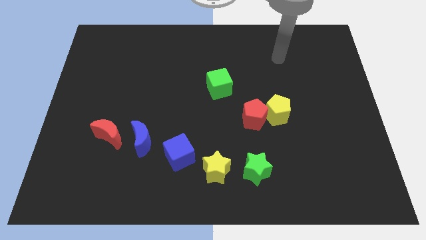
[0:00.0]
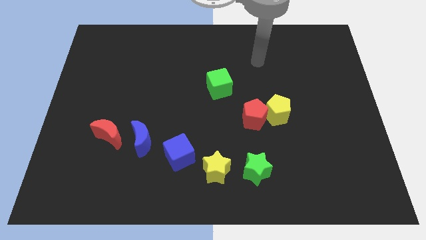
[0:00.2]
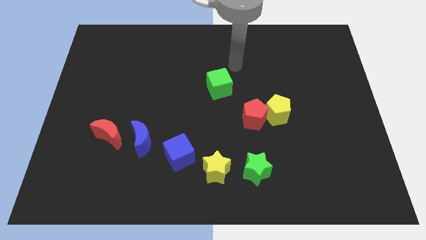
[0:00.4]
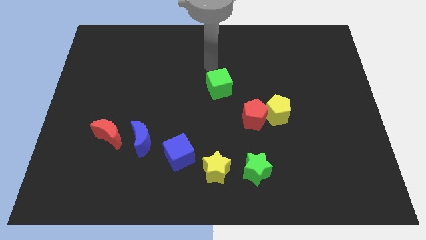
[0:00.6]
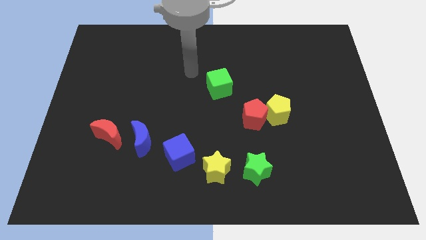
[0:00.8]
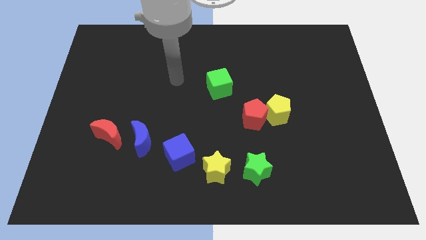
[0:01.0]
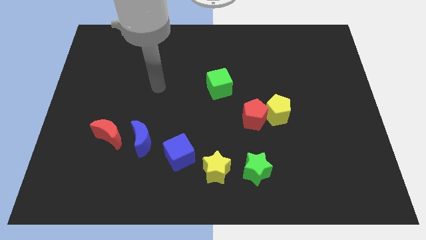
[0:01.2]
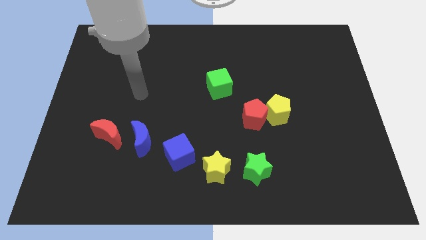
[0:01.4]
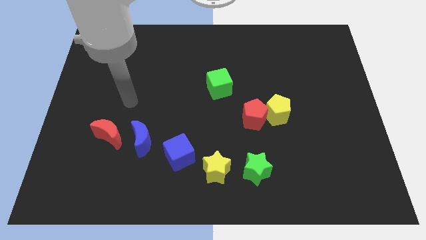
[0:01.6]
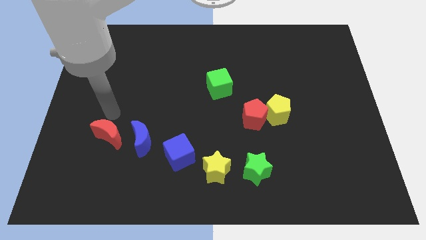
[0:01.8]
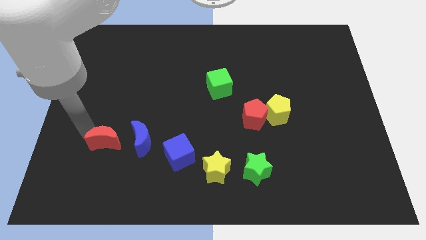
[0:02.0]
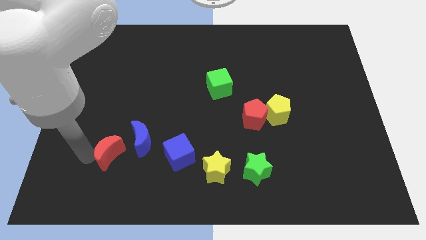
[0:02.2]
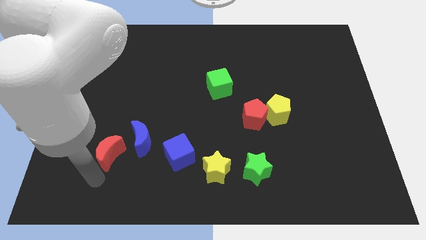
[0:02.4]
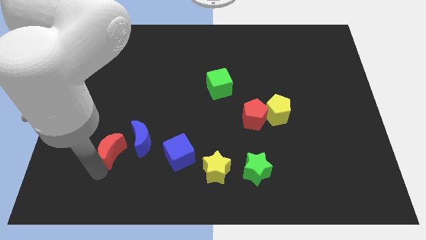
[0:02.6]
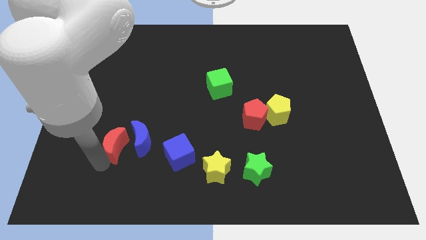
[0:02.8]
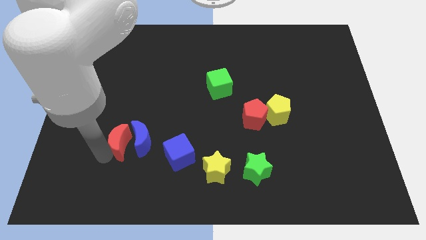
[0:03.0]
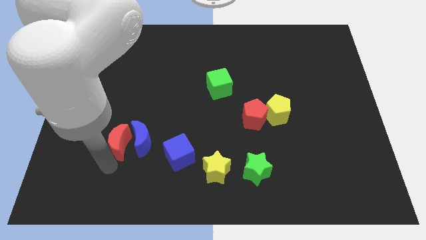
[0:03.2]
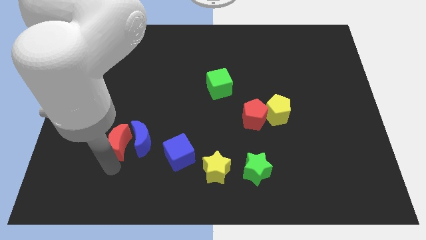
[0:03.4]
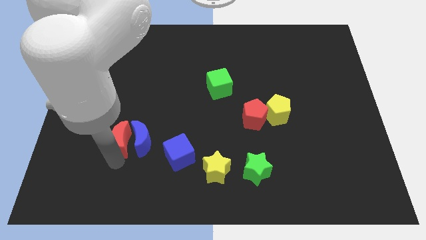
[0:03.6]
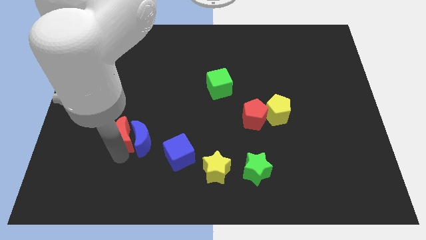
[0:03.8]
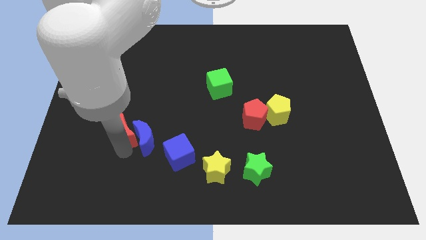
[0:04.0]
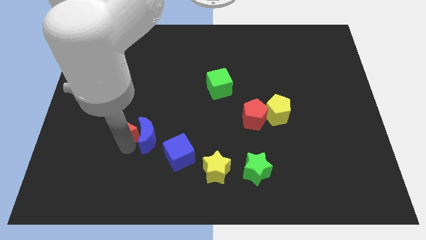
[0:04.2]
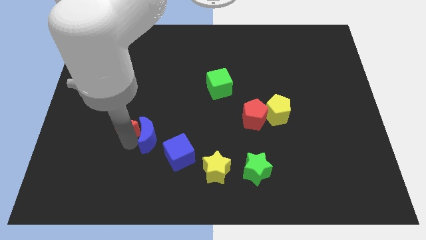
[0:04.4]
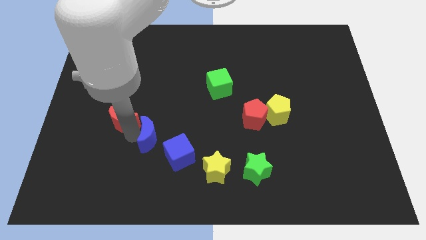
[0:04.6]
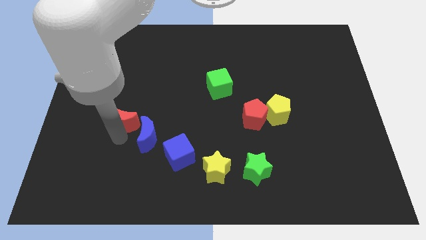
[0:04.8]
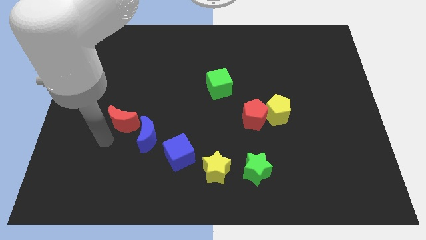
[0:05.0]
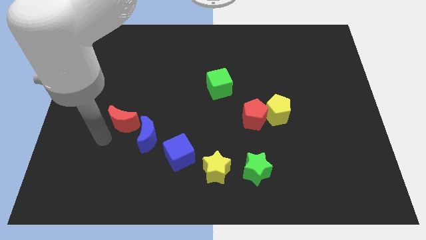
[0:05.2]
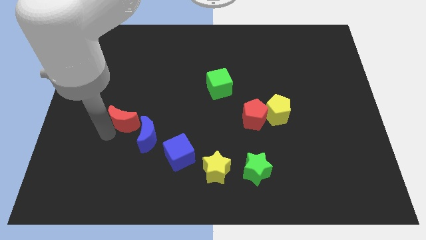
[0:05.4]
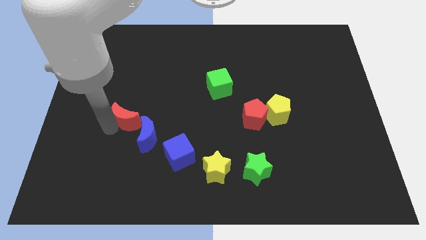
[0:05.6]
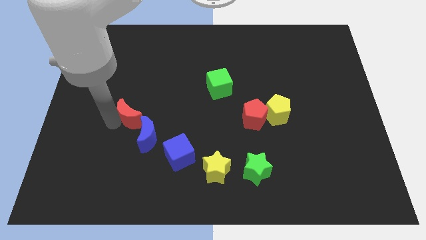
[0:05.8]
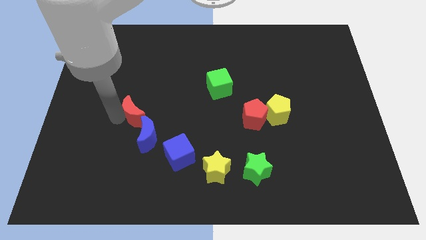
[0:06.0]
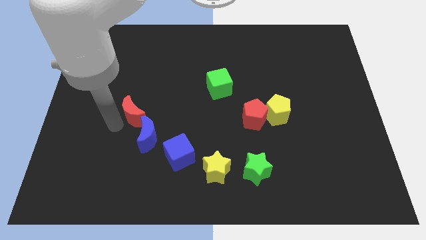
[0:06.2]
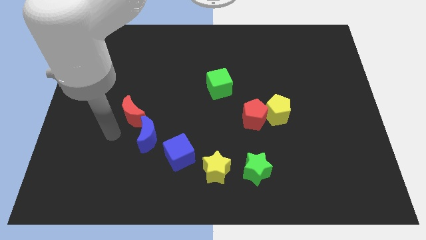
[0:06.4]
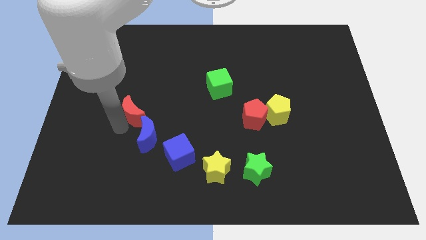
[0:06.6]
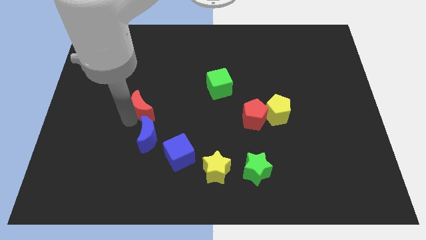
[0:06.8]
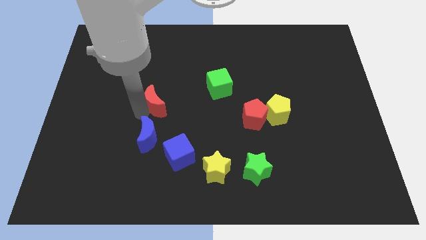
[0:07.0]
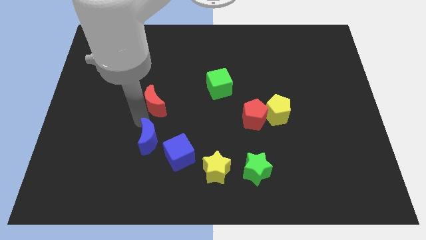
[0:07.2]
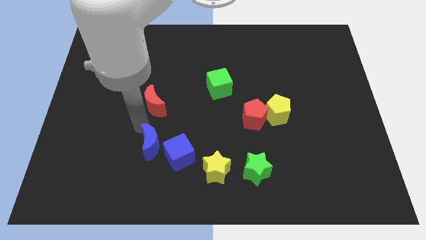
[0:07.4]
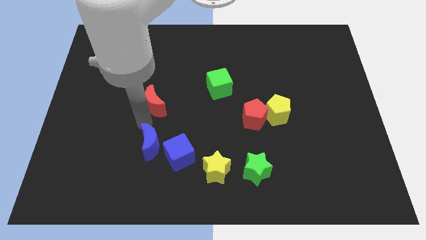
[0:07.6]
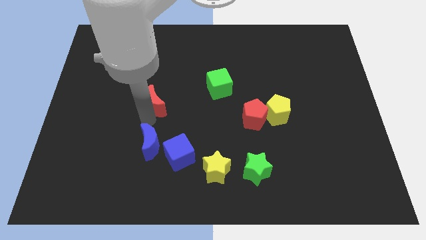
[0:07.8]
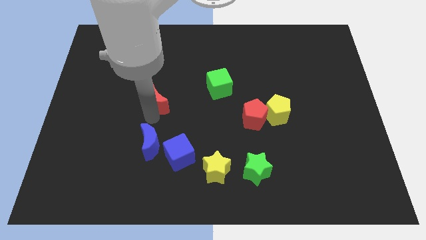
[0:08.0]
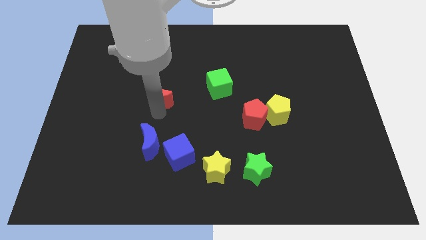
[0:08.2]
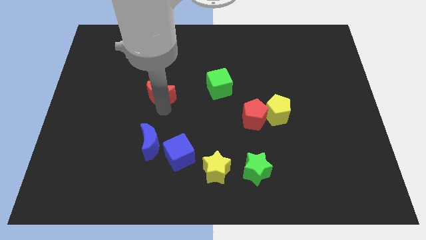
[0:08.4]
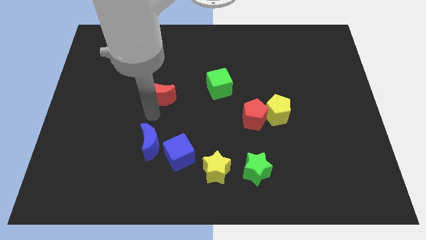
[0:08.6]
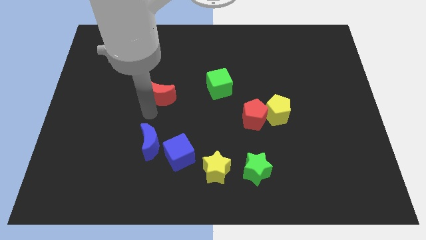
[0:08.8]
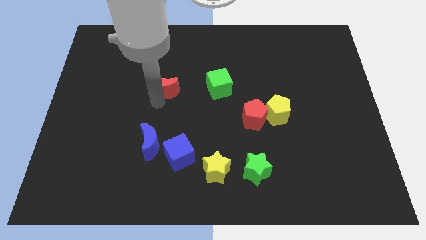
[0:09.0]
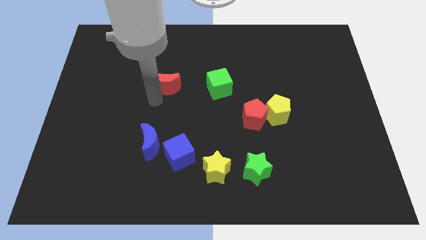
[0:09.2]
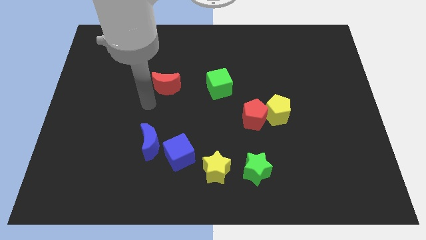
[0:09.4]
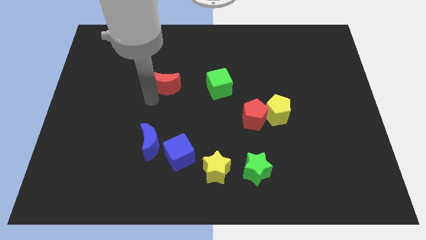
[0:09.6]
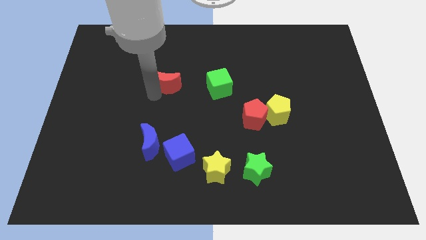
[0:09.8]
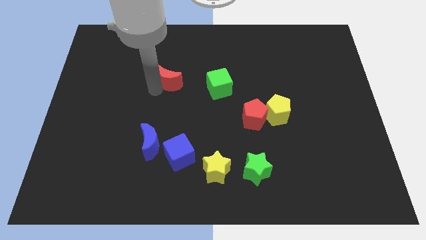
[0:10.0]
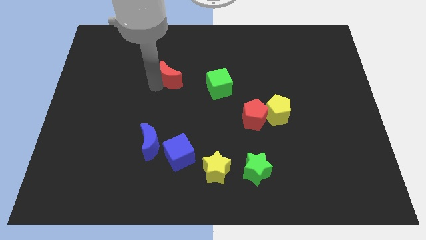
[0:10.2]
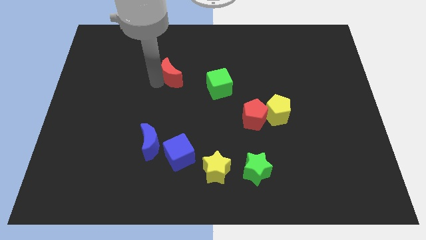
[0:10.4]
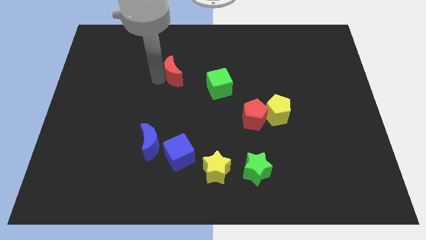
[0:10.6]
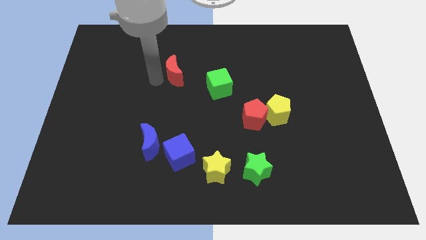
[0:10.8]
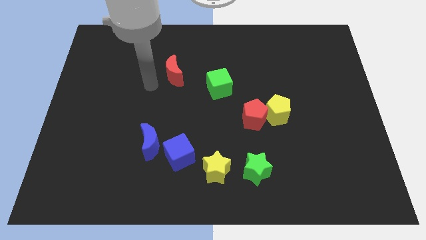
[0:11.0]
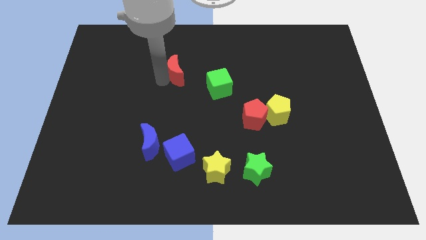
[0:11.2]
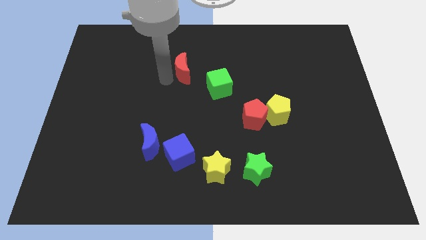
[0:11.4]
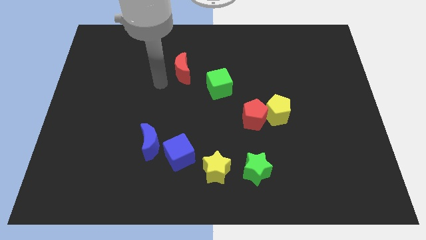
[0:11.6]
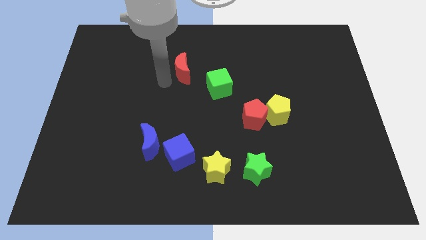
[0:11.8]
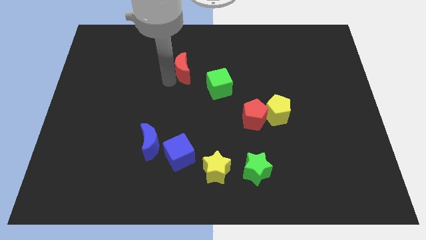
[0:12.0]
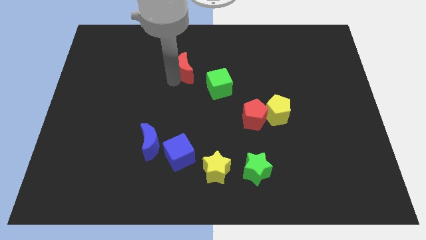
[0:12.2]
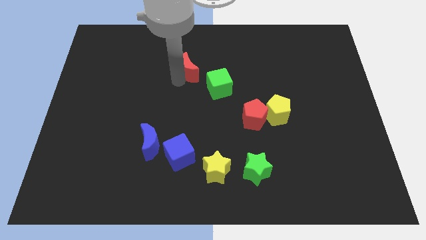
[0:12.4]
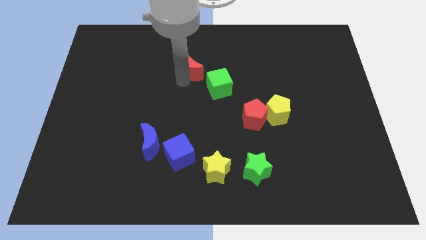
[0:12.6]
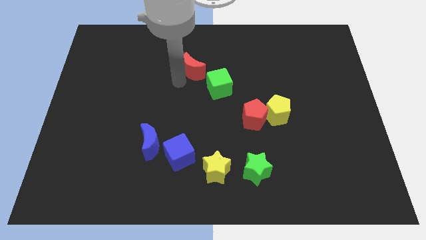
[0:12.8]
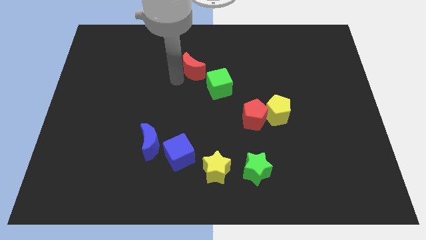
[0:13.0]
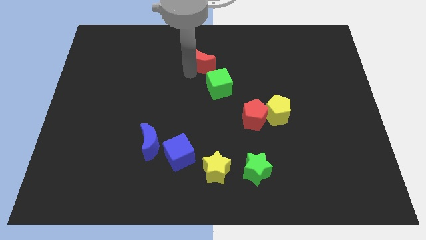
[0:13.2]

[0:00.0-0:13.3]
put the red moon to the top side of the green cube

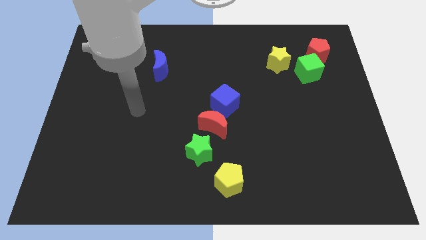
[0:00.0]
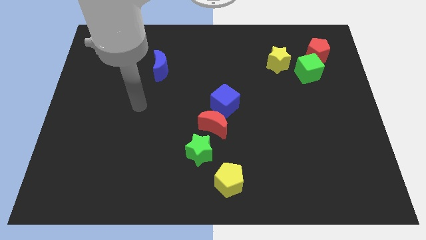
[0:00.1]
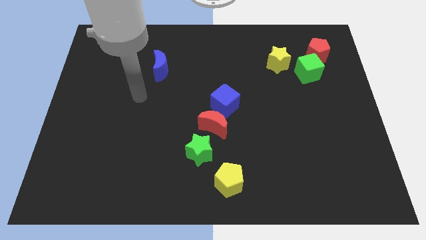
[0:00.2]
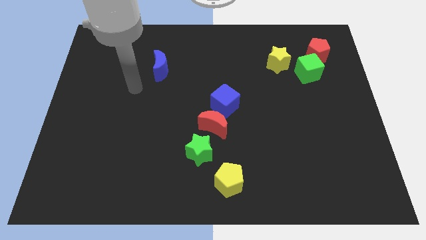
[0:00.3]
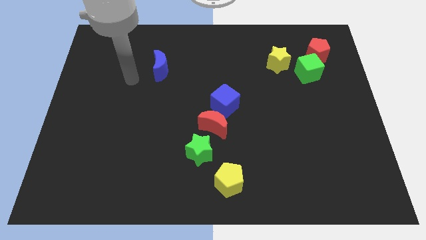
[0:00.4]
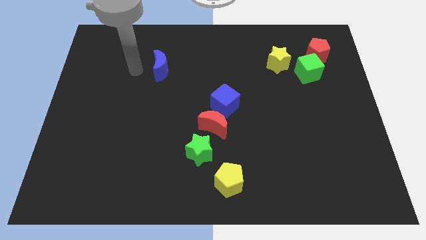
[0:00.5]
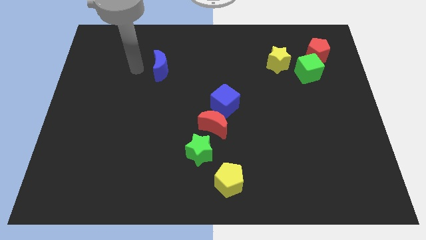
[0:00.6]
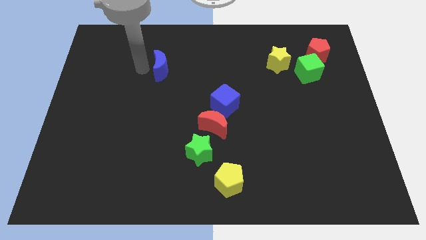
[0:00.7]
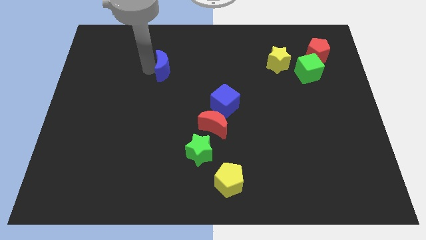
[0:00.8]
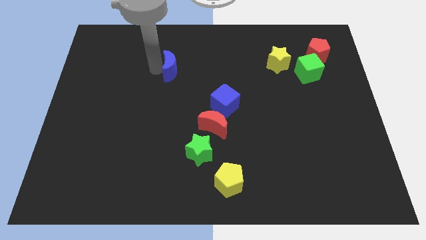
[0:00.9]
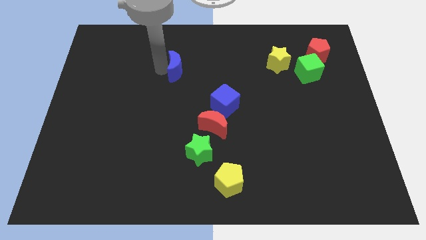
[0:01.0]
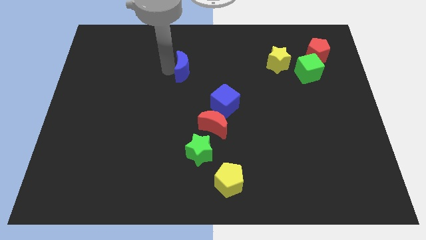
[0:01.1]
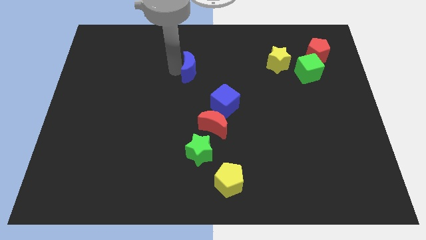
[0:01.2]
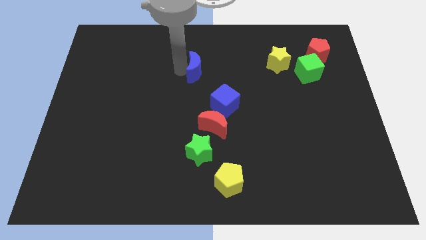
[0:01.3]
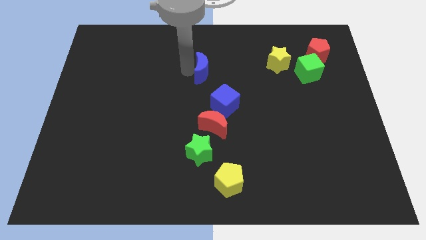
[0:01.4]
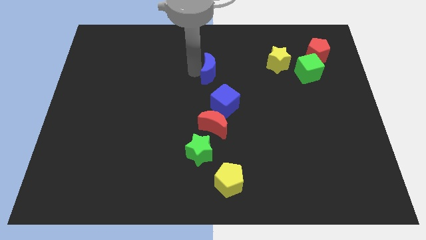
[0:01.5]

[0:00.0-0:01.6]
push the blue moon to the top side of the blue cube
